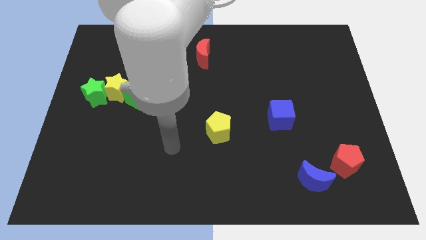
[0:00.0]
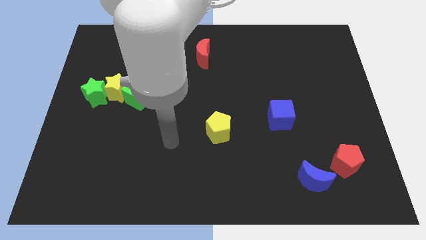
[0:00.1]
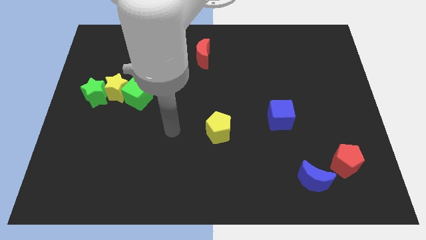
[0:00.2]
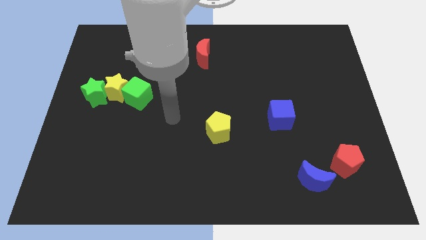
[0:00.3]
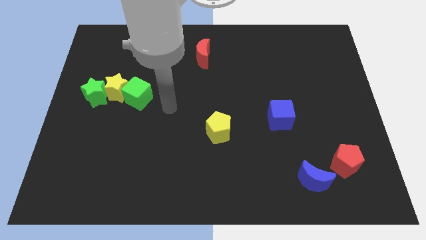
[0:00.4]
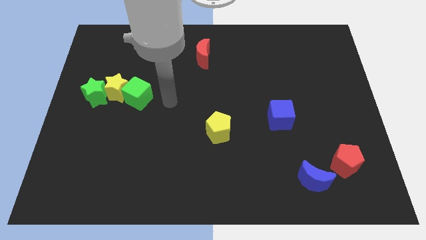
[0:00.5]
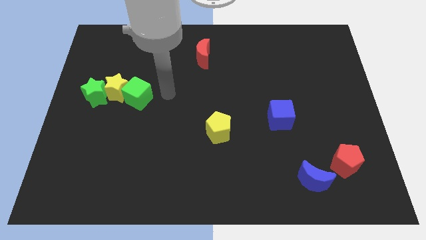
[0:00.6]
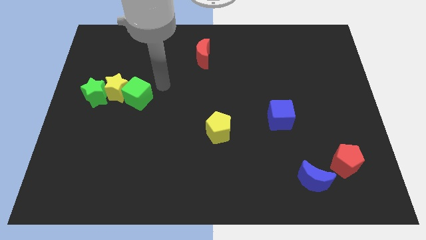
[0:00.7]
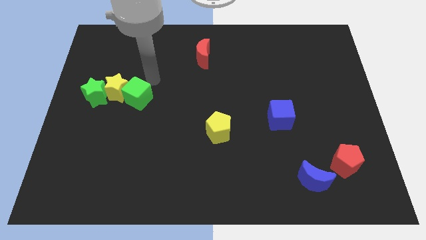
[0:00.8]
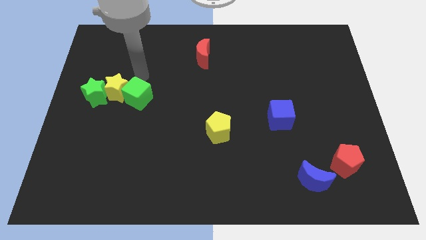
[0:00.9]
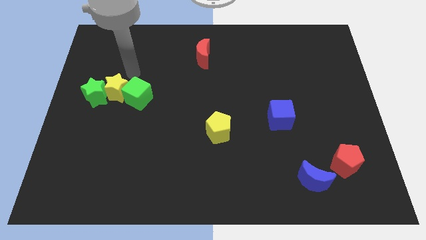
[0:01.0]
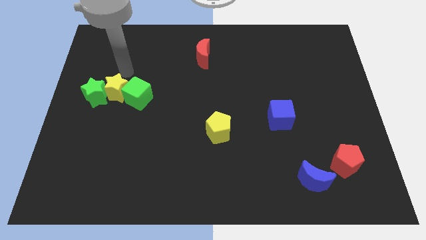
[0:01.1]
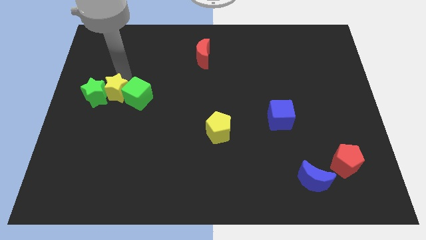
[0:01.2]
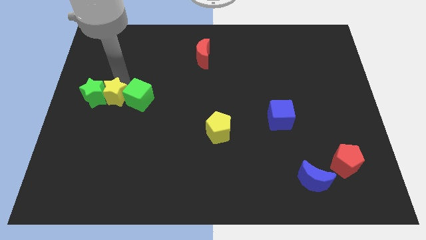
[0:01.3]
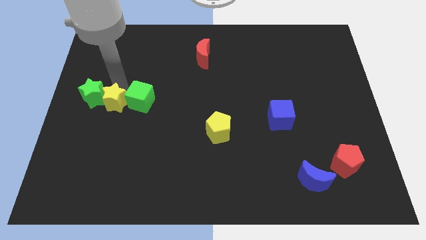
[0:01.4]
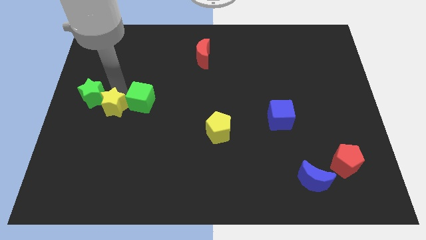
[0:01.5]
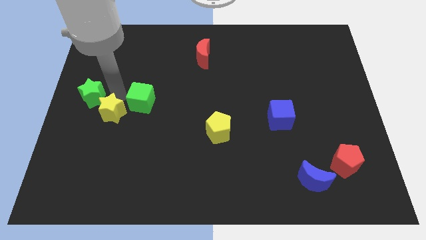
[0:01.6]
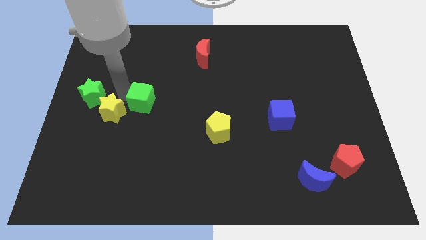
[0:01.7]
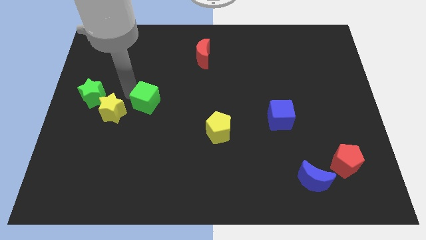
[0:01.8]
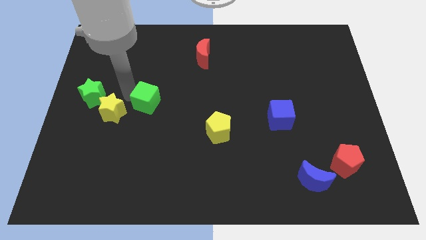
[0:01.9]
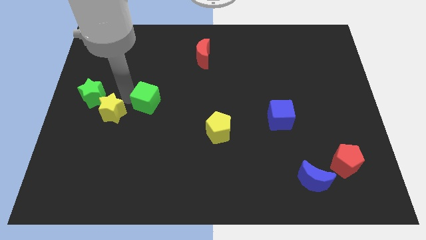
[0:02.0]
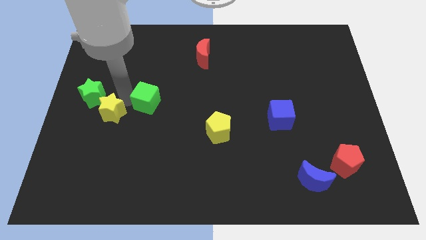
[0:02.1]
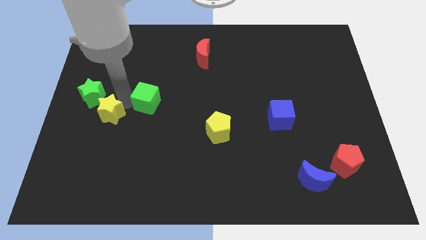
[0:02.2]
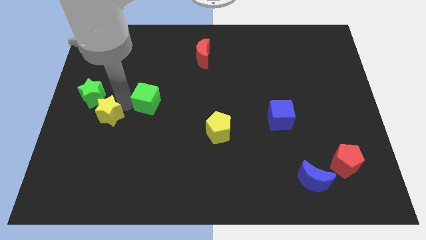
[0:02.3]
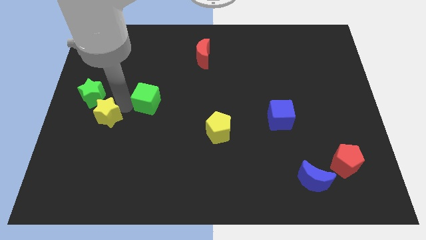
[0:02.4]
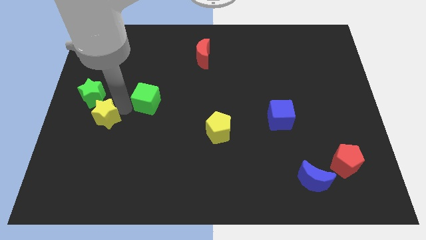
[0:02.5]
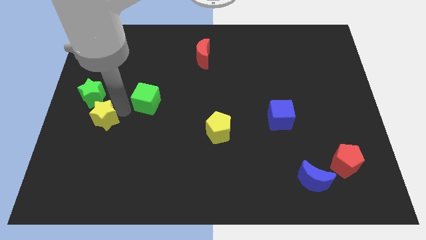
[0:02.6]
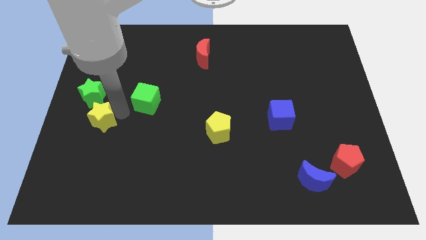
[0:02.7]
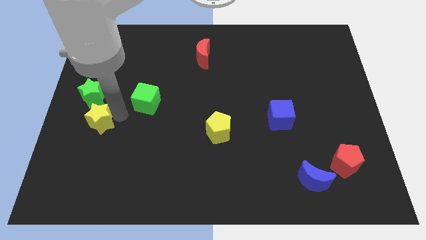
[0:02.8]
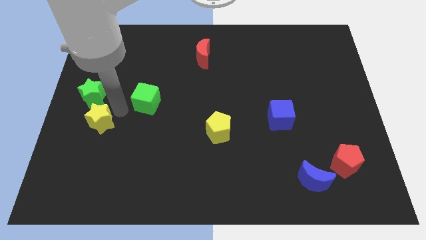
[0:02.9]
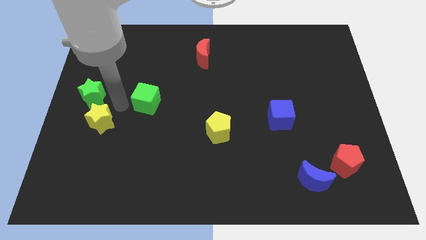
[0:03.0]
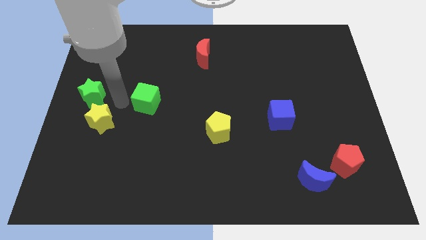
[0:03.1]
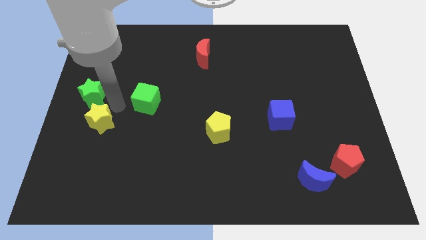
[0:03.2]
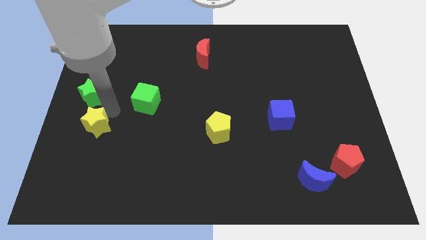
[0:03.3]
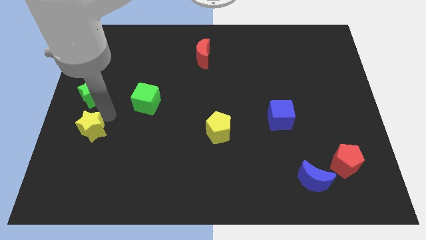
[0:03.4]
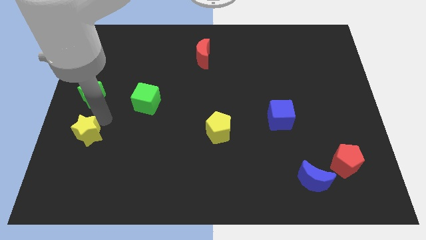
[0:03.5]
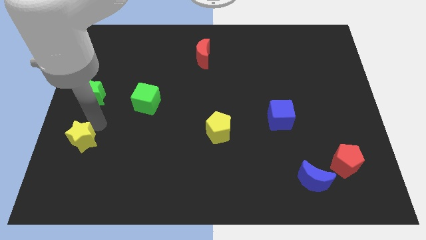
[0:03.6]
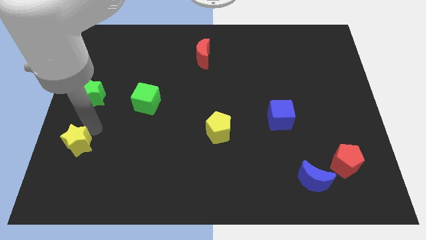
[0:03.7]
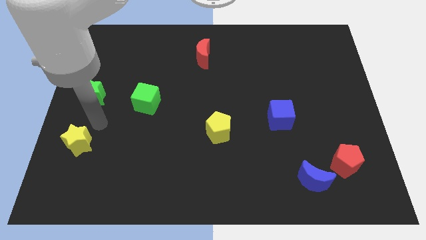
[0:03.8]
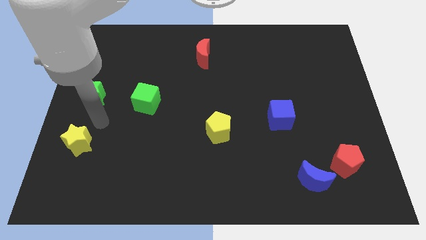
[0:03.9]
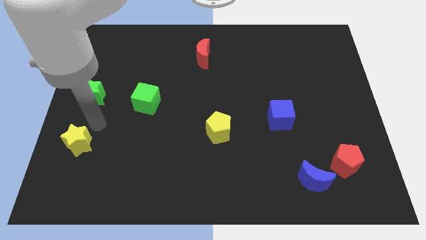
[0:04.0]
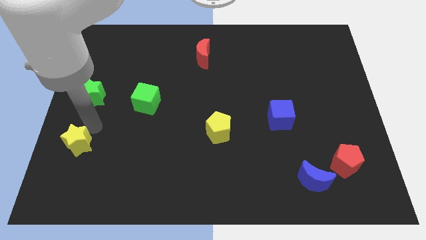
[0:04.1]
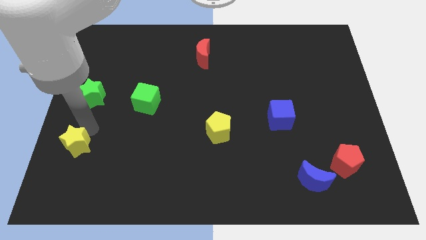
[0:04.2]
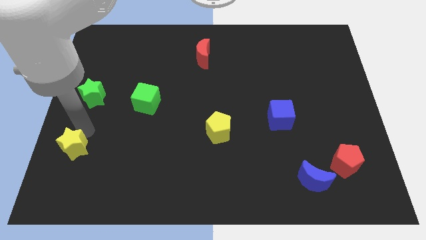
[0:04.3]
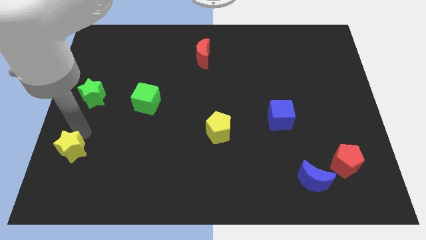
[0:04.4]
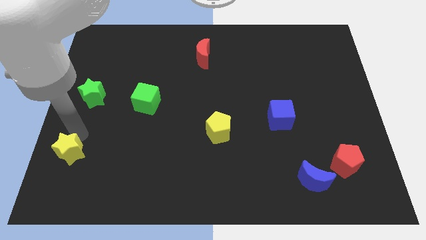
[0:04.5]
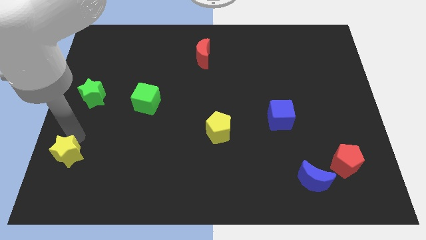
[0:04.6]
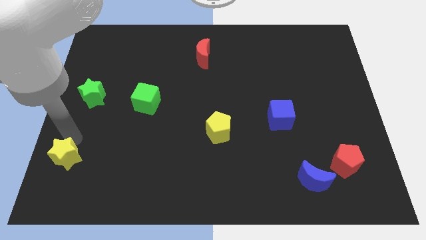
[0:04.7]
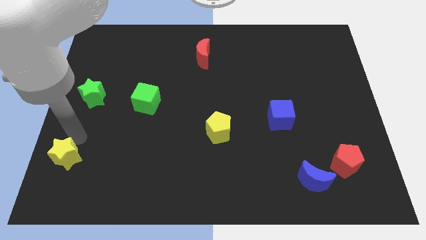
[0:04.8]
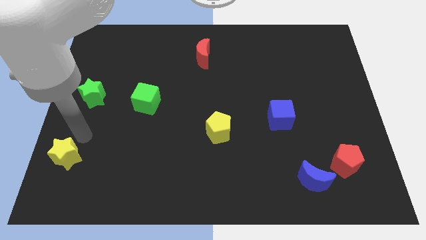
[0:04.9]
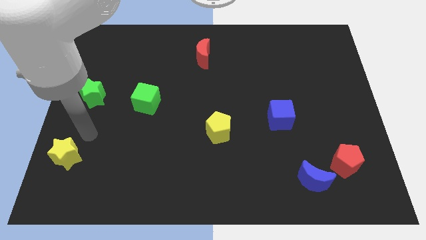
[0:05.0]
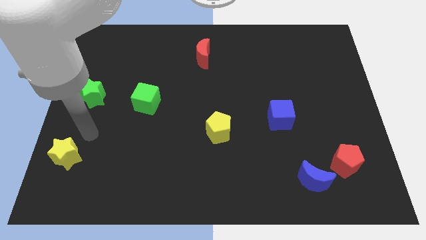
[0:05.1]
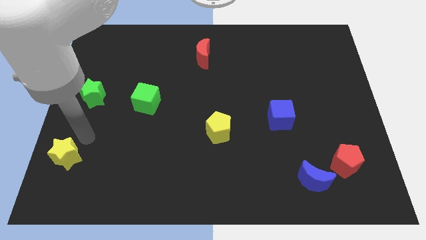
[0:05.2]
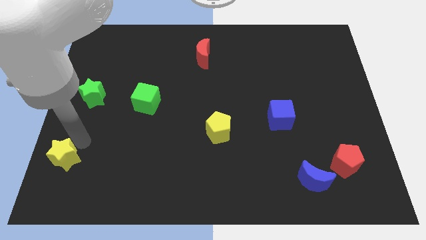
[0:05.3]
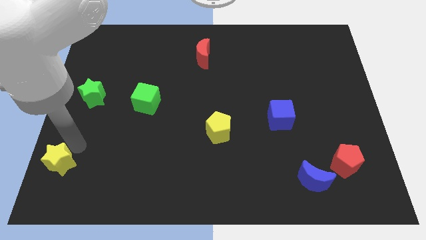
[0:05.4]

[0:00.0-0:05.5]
push the yellow star to the bottom left

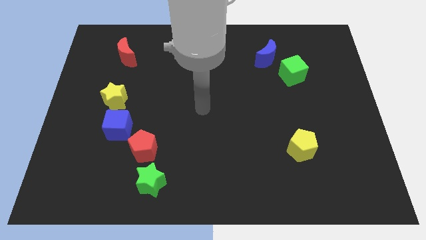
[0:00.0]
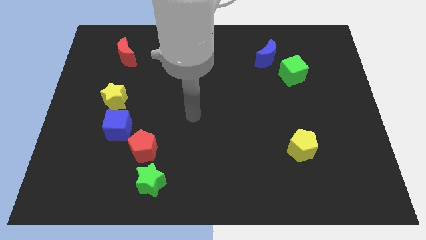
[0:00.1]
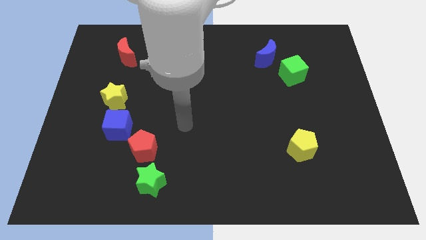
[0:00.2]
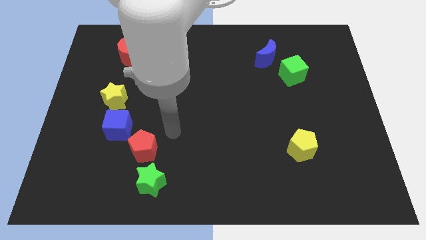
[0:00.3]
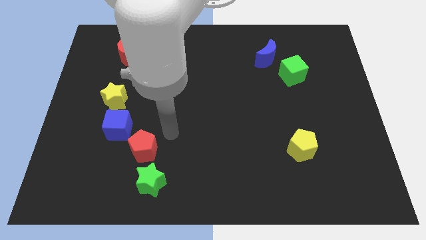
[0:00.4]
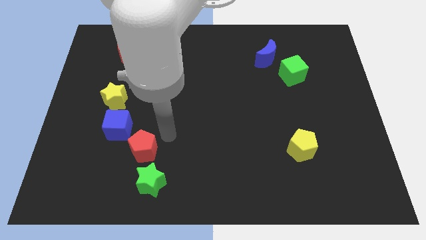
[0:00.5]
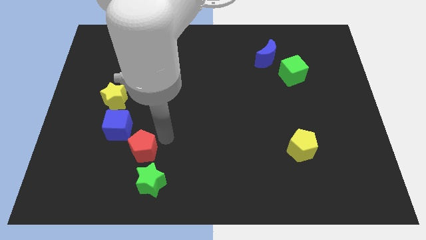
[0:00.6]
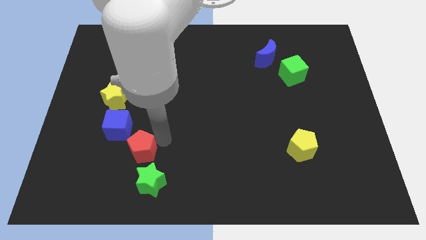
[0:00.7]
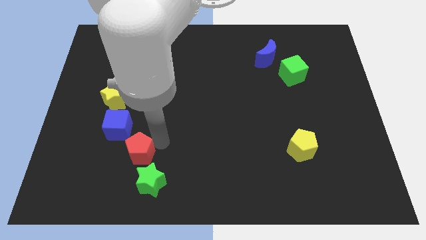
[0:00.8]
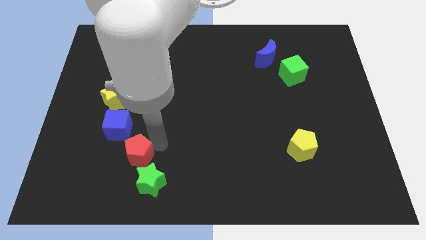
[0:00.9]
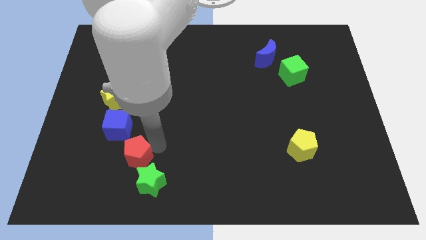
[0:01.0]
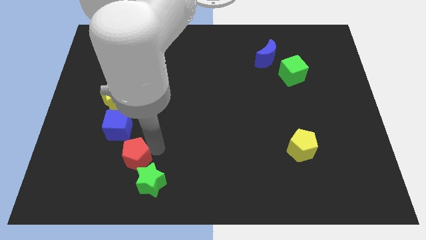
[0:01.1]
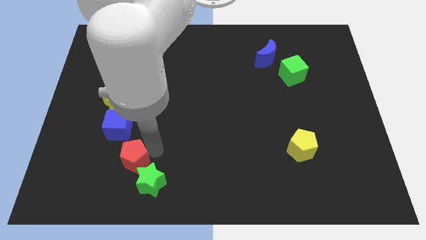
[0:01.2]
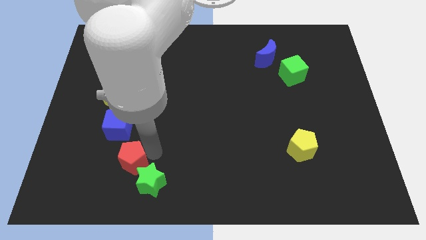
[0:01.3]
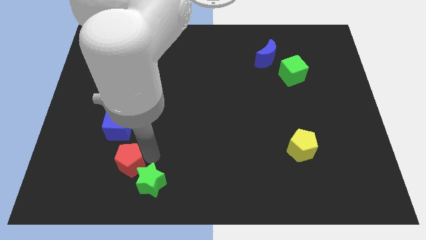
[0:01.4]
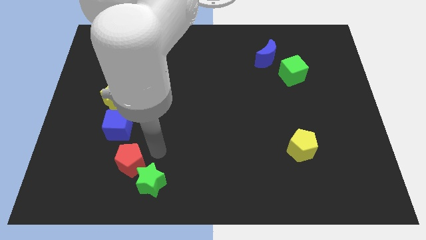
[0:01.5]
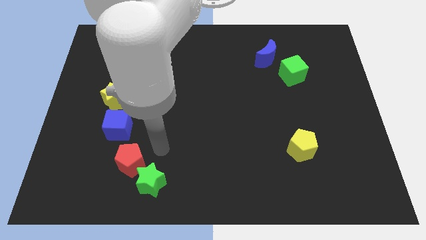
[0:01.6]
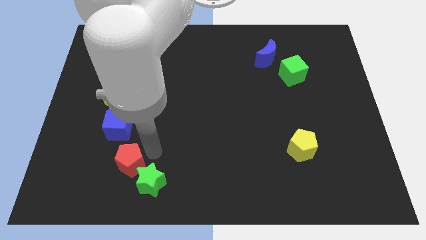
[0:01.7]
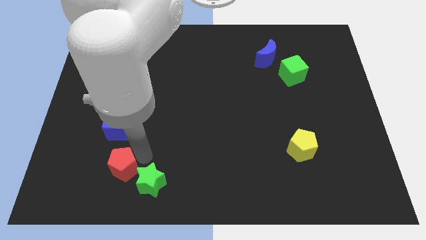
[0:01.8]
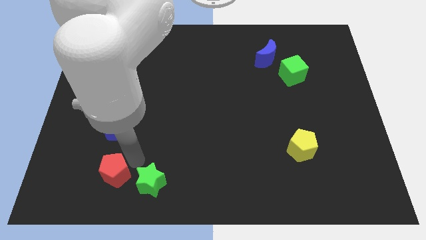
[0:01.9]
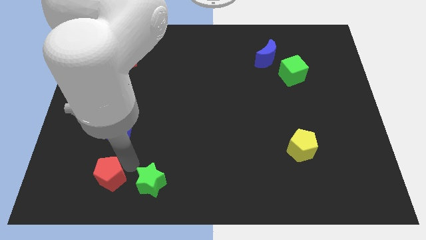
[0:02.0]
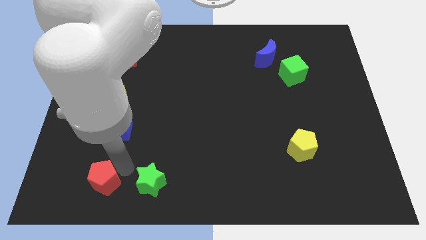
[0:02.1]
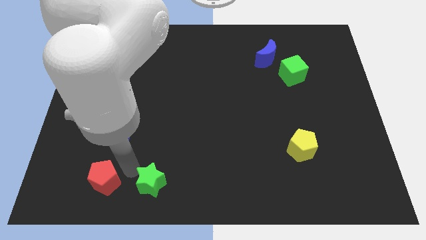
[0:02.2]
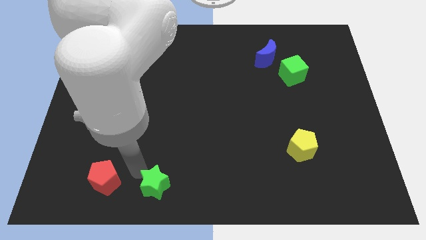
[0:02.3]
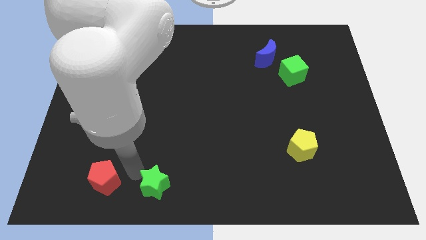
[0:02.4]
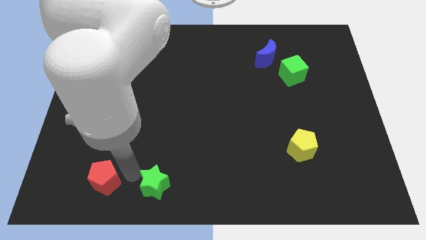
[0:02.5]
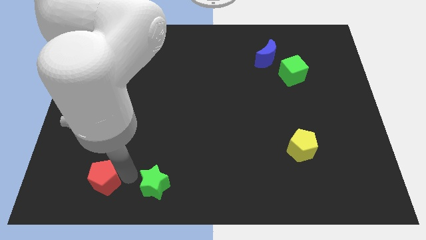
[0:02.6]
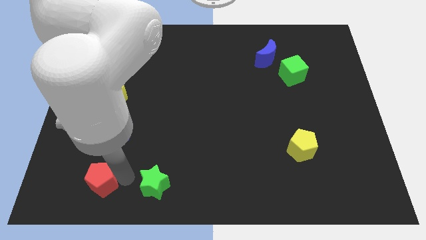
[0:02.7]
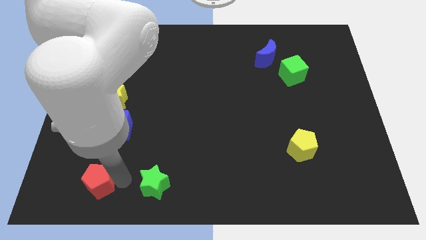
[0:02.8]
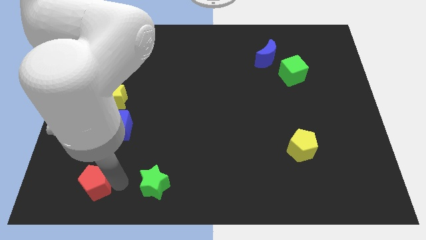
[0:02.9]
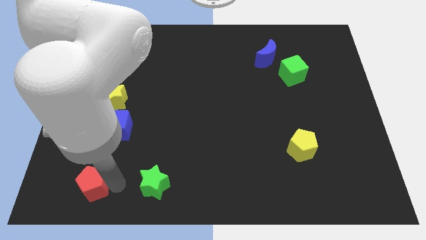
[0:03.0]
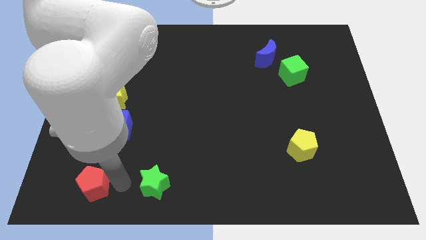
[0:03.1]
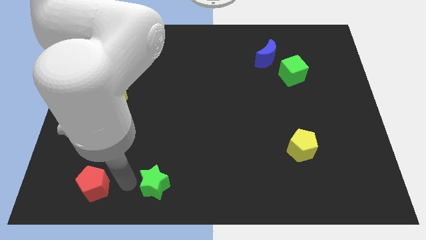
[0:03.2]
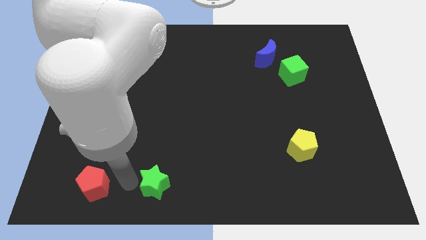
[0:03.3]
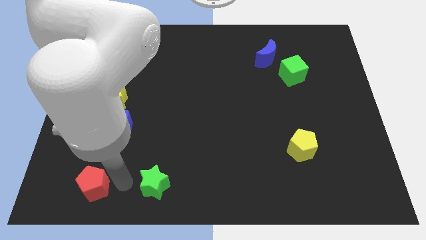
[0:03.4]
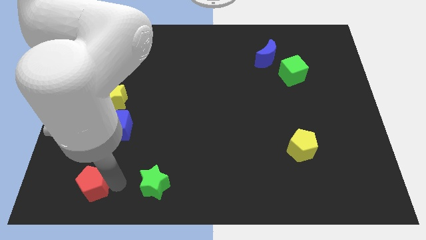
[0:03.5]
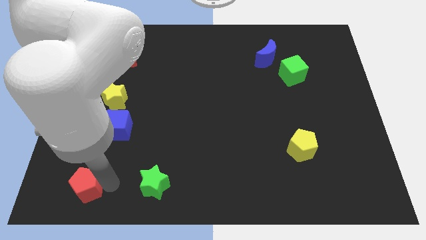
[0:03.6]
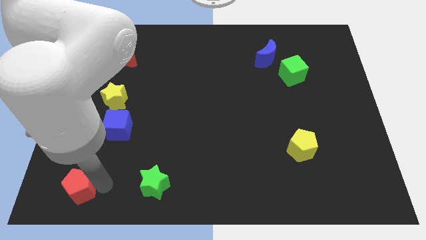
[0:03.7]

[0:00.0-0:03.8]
push the red pentagon to the bottom left of the board
